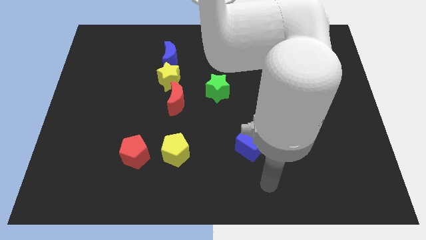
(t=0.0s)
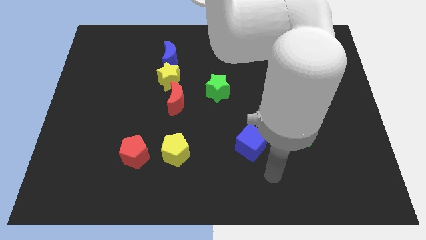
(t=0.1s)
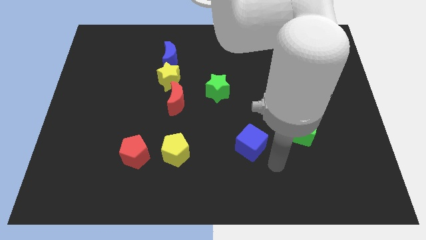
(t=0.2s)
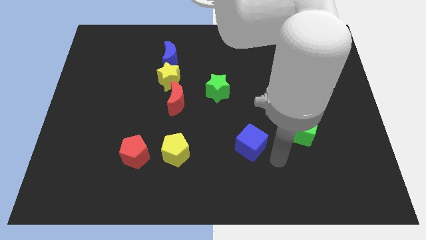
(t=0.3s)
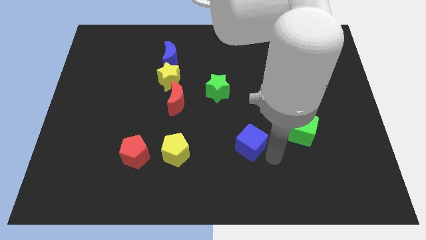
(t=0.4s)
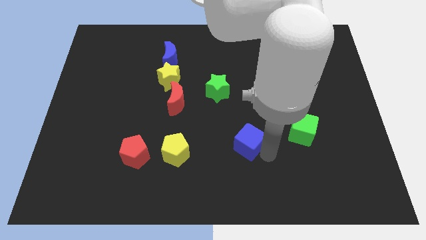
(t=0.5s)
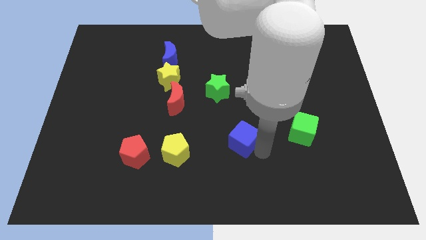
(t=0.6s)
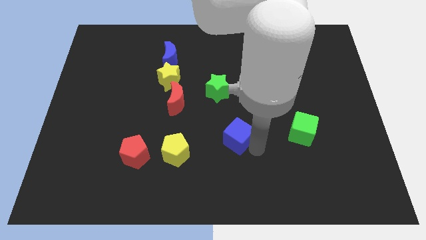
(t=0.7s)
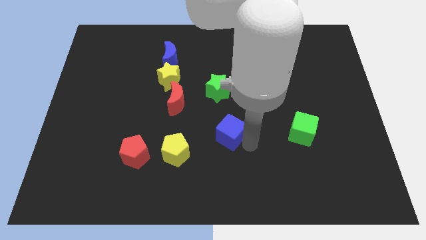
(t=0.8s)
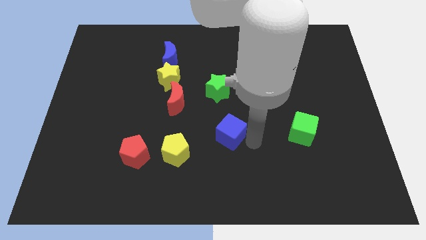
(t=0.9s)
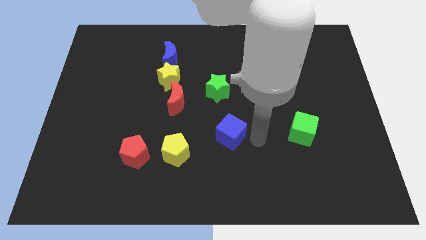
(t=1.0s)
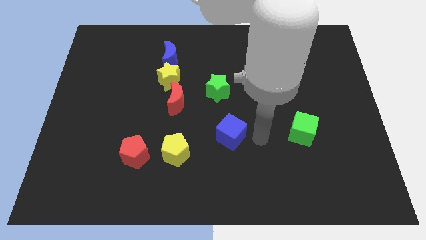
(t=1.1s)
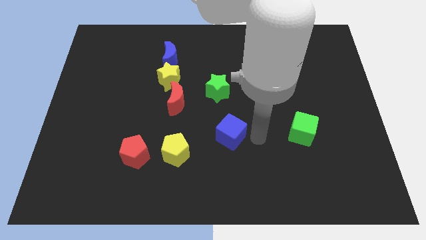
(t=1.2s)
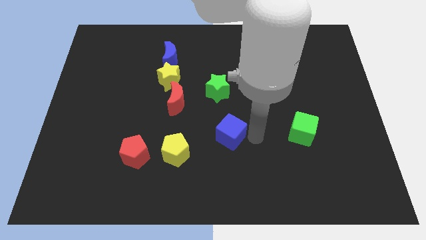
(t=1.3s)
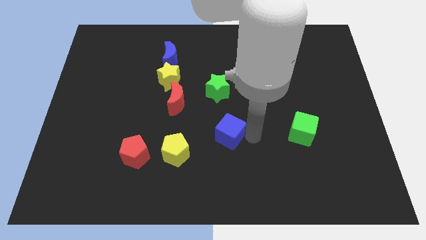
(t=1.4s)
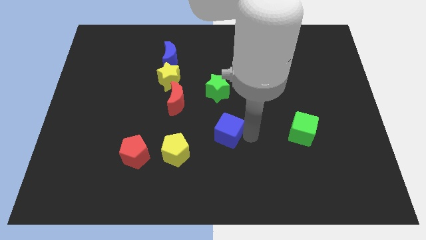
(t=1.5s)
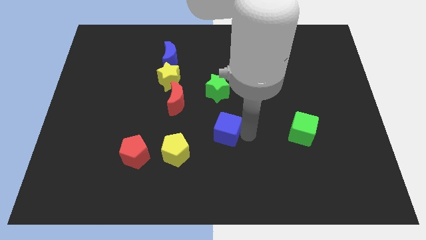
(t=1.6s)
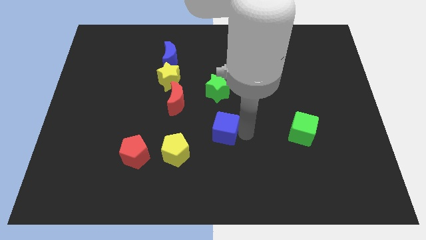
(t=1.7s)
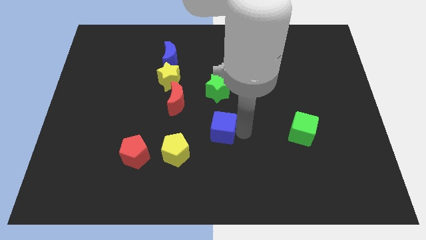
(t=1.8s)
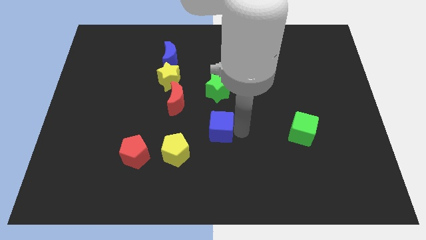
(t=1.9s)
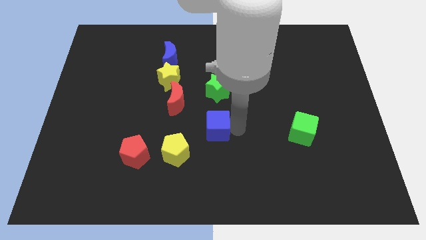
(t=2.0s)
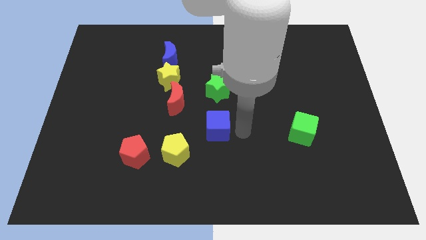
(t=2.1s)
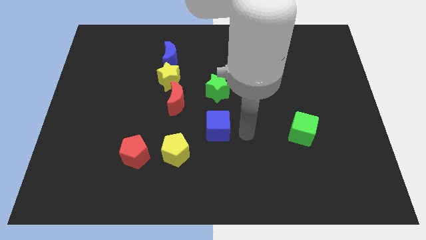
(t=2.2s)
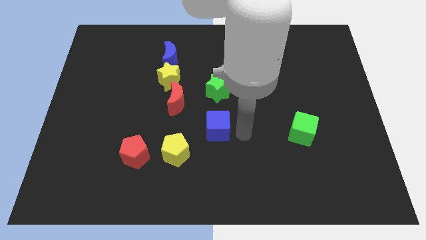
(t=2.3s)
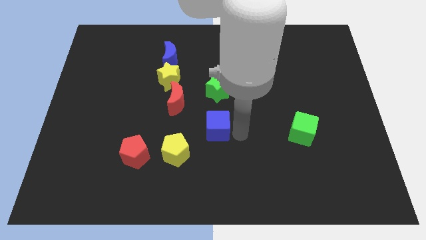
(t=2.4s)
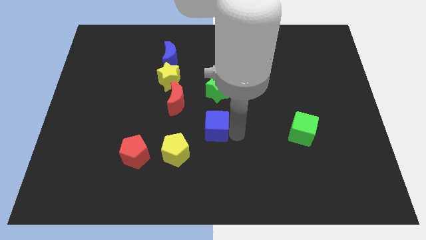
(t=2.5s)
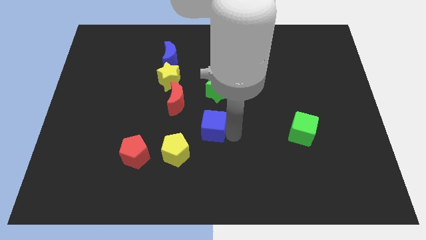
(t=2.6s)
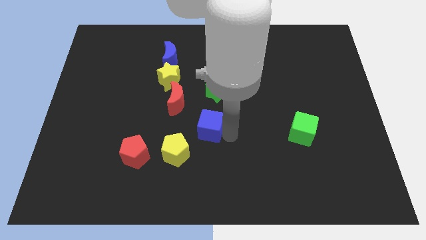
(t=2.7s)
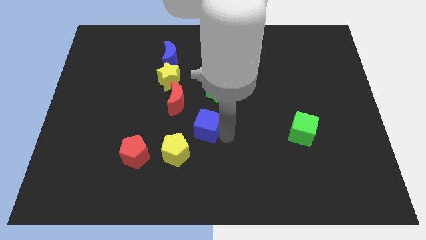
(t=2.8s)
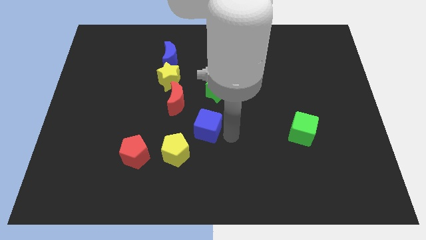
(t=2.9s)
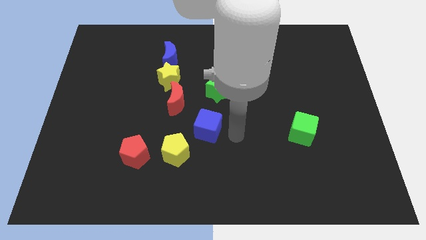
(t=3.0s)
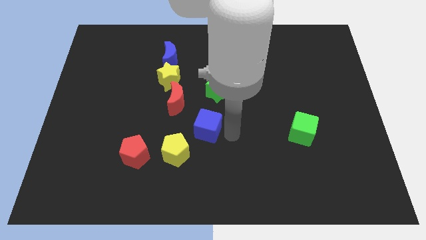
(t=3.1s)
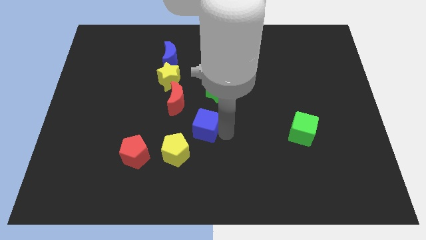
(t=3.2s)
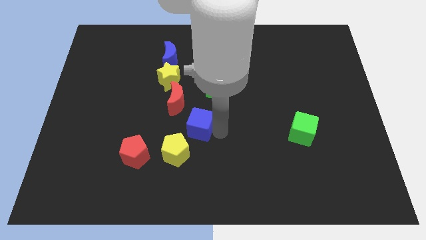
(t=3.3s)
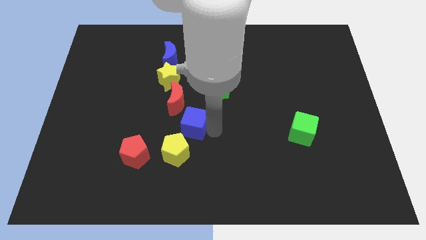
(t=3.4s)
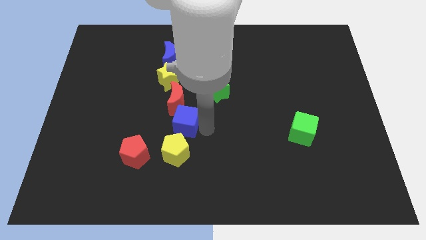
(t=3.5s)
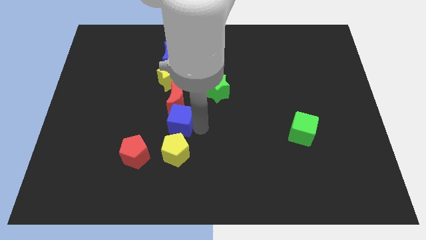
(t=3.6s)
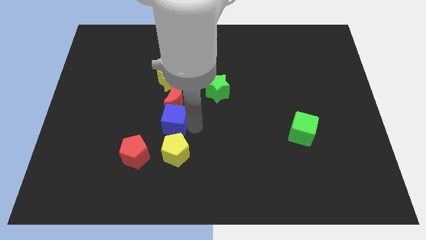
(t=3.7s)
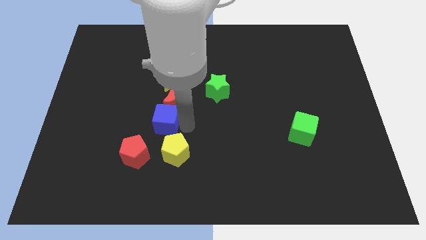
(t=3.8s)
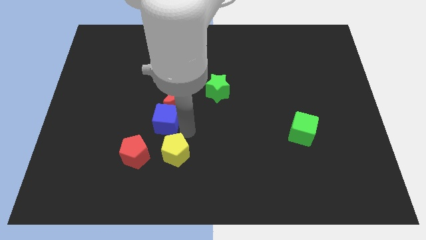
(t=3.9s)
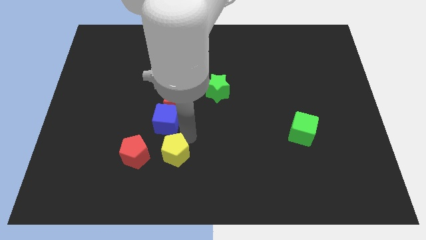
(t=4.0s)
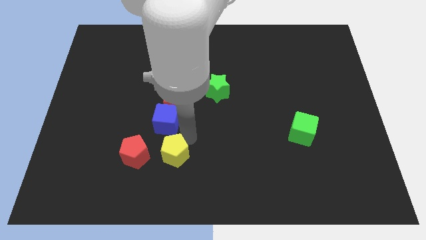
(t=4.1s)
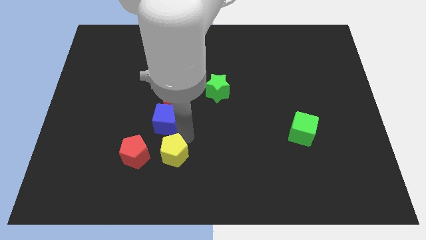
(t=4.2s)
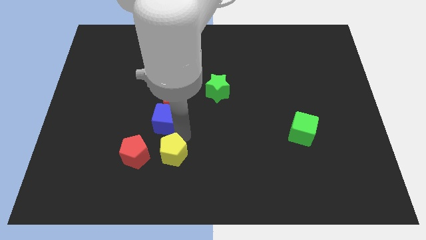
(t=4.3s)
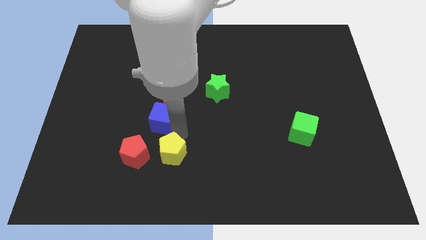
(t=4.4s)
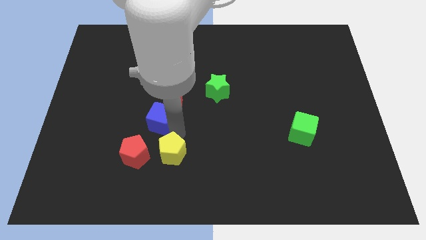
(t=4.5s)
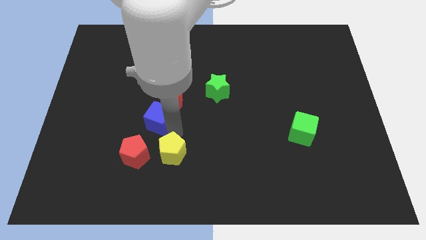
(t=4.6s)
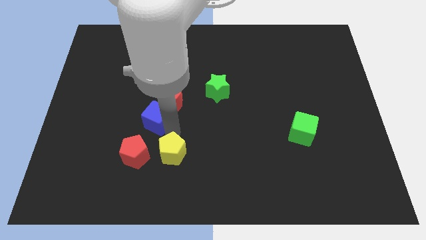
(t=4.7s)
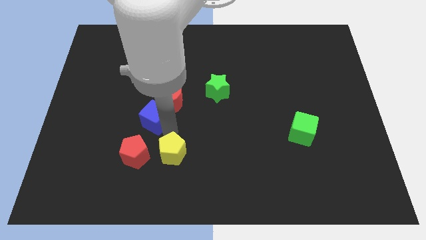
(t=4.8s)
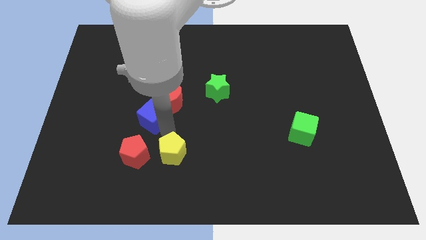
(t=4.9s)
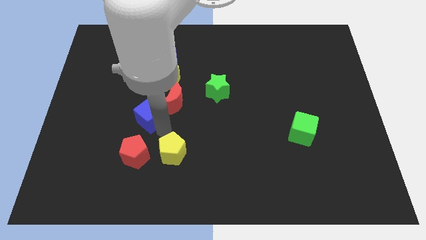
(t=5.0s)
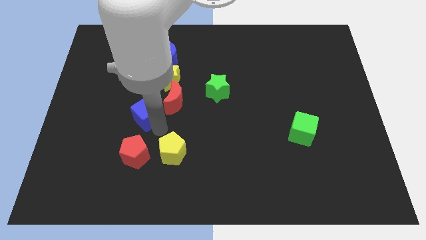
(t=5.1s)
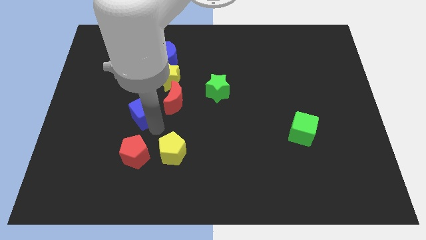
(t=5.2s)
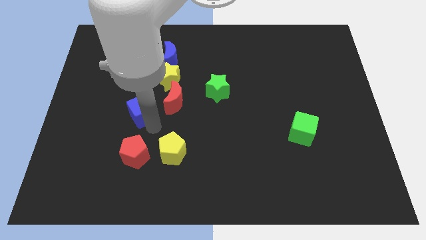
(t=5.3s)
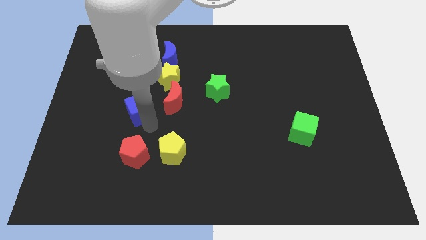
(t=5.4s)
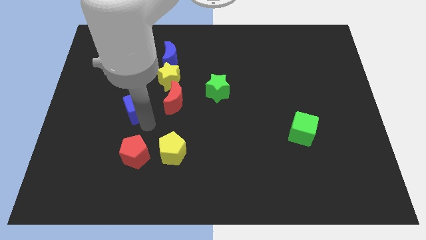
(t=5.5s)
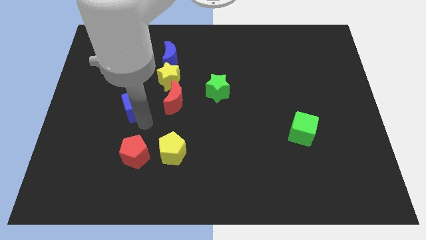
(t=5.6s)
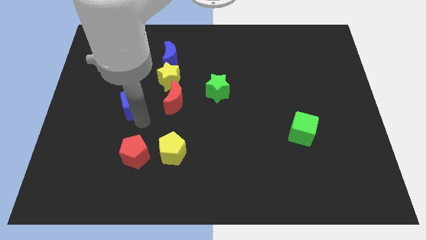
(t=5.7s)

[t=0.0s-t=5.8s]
move the blue cube upwards and to the left

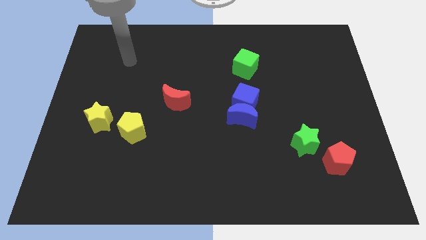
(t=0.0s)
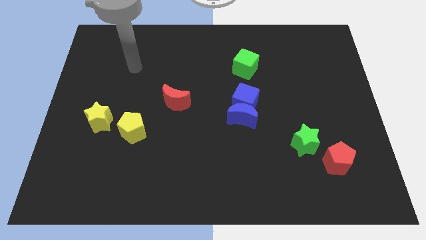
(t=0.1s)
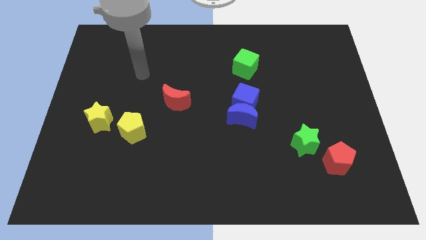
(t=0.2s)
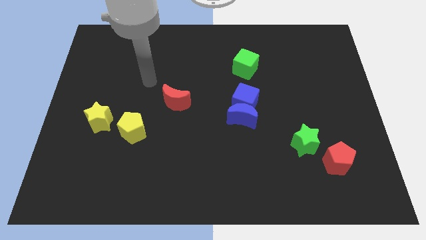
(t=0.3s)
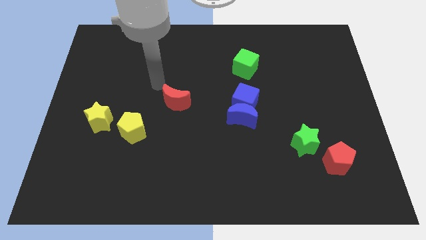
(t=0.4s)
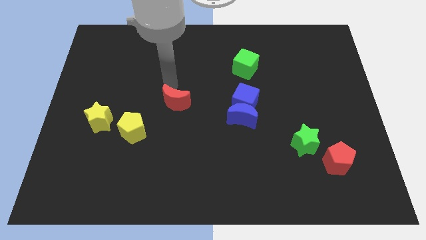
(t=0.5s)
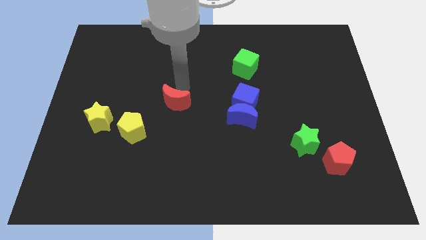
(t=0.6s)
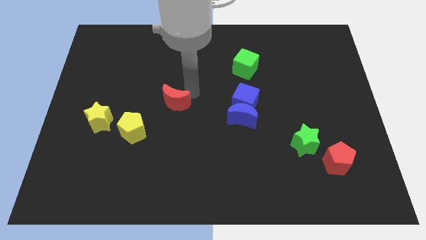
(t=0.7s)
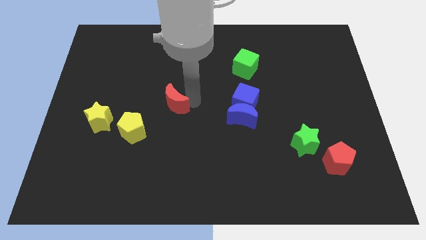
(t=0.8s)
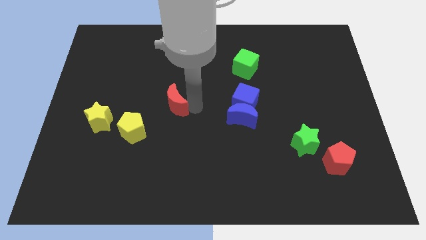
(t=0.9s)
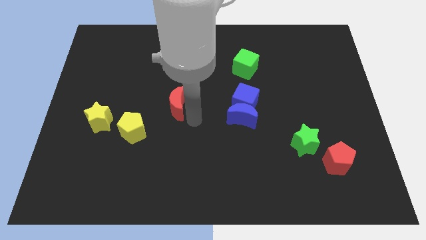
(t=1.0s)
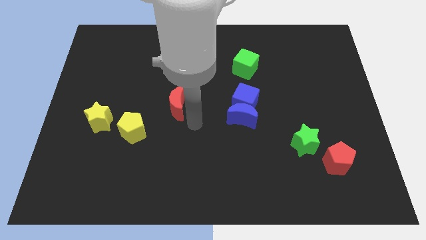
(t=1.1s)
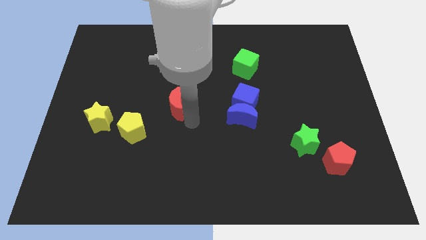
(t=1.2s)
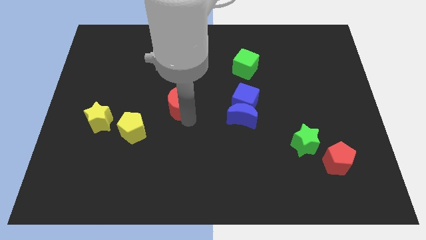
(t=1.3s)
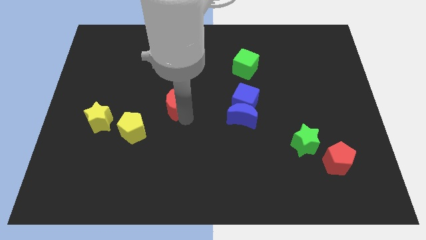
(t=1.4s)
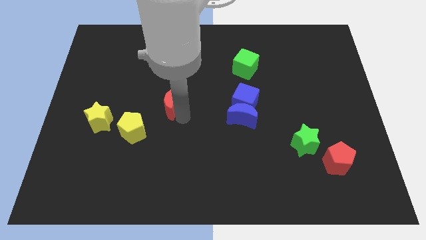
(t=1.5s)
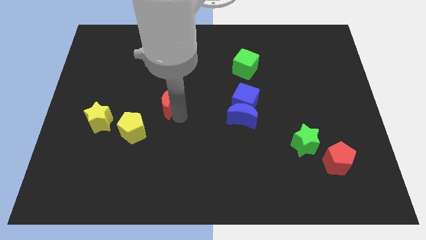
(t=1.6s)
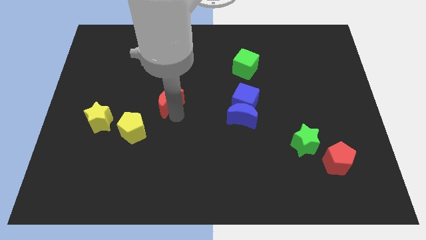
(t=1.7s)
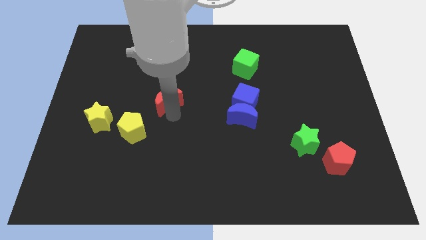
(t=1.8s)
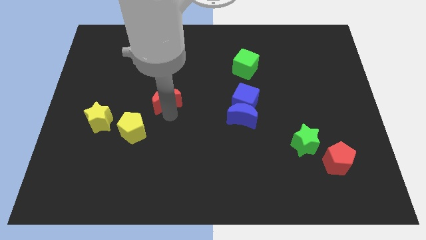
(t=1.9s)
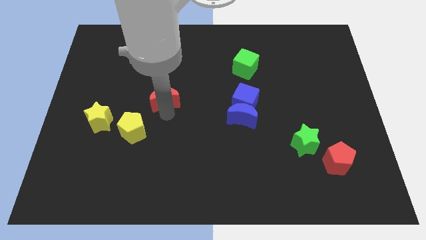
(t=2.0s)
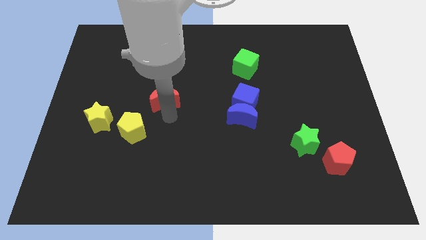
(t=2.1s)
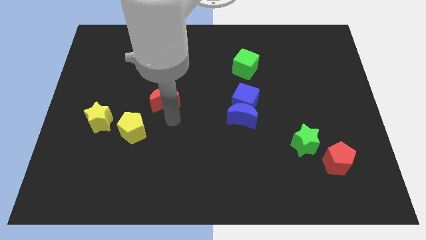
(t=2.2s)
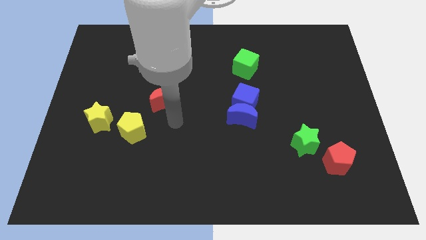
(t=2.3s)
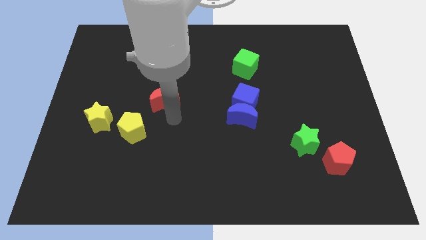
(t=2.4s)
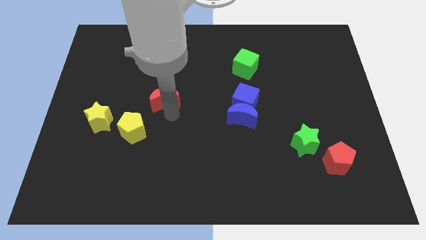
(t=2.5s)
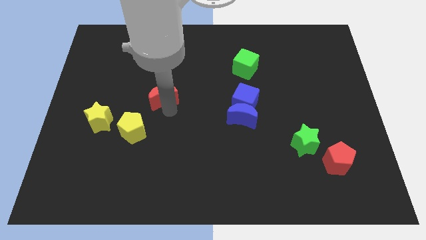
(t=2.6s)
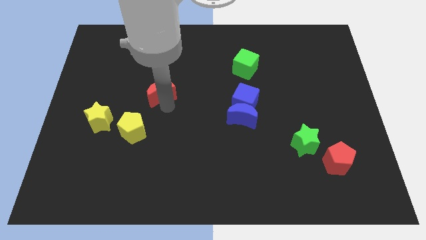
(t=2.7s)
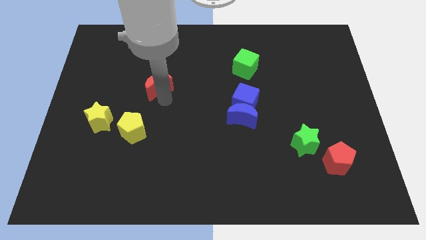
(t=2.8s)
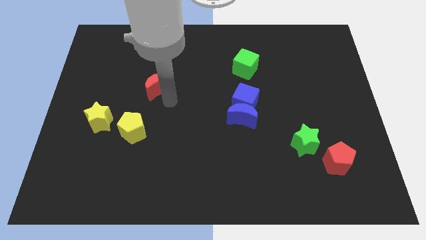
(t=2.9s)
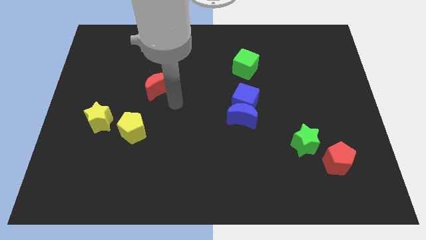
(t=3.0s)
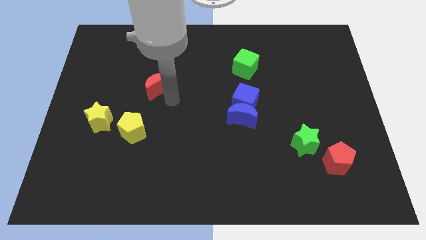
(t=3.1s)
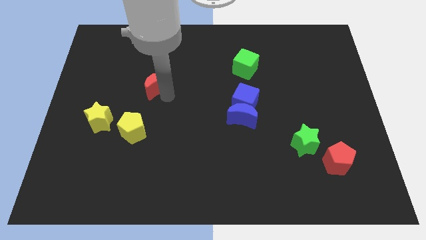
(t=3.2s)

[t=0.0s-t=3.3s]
move the red moon somewhat up and then to the left
